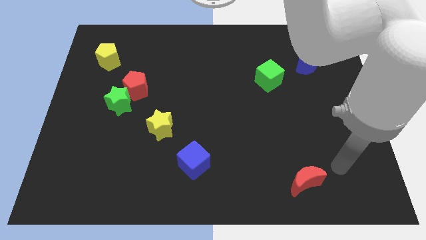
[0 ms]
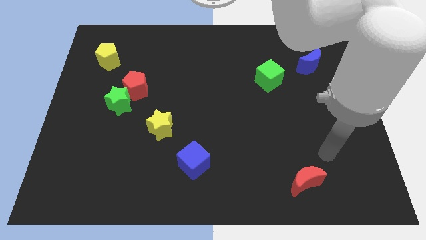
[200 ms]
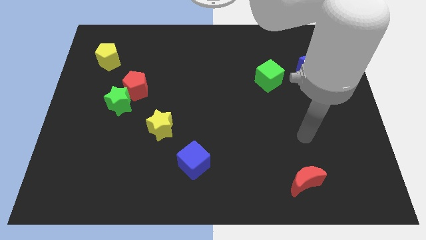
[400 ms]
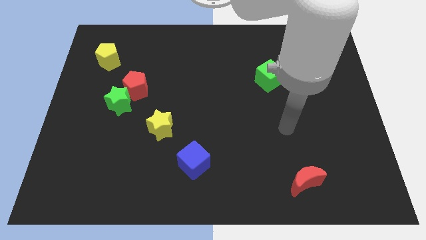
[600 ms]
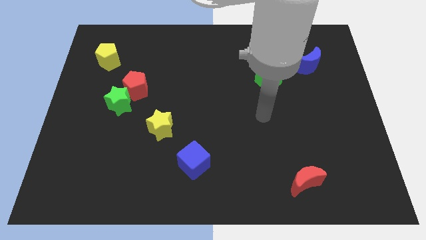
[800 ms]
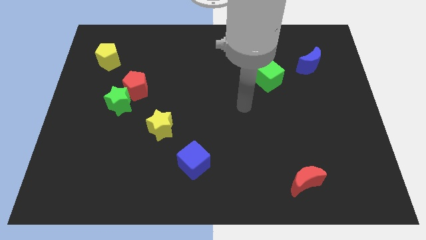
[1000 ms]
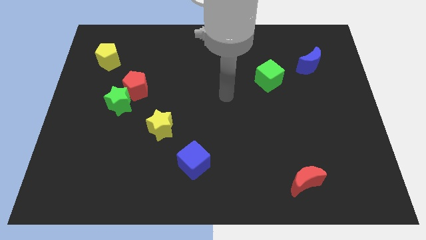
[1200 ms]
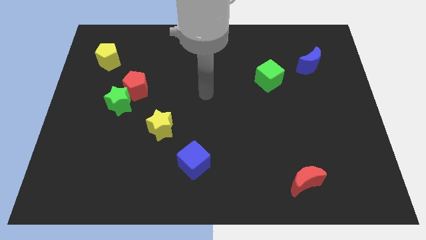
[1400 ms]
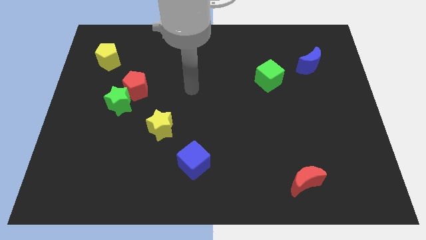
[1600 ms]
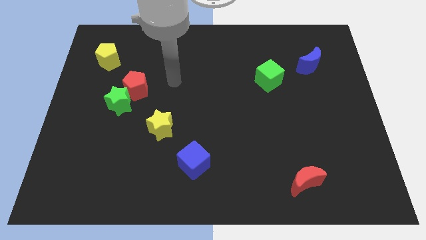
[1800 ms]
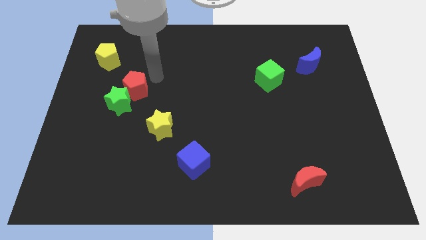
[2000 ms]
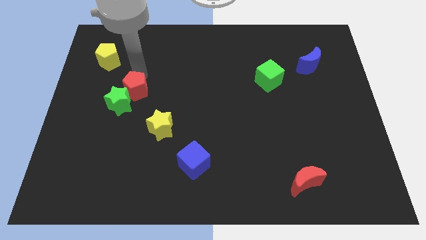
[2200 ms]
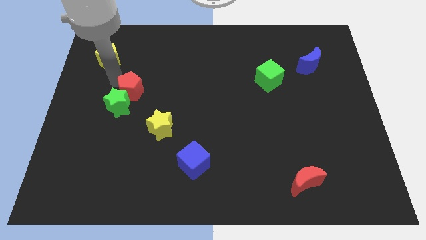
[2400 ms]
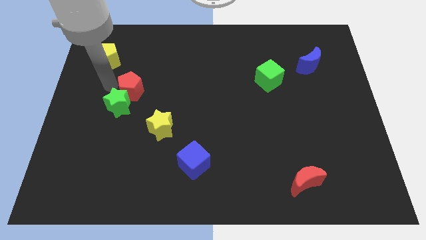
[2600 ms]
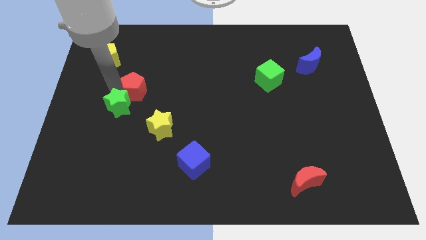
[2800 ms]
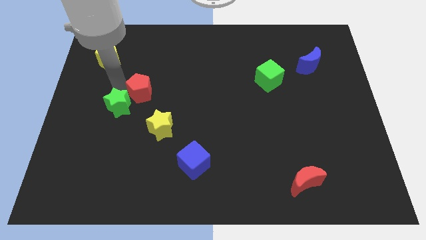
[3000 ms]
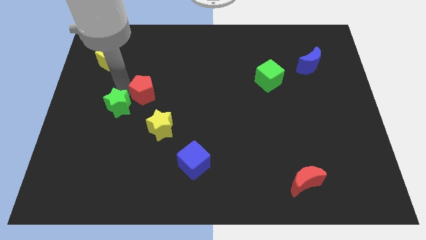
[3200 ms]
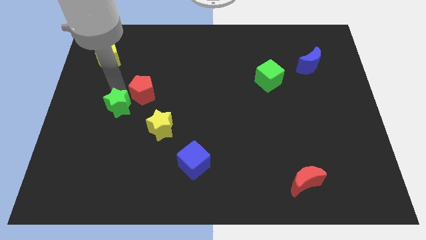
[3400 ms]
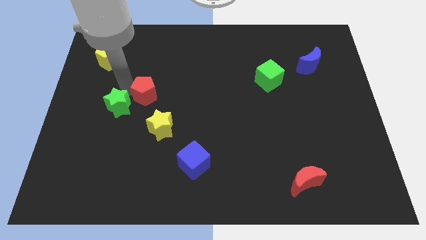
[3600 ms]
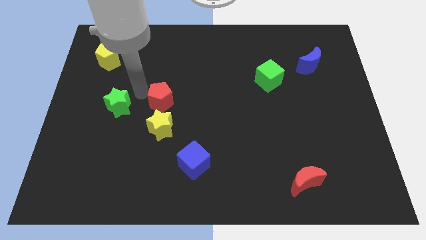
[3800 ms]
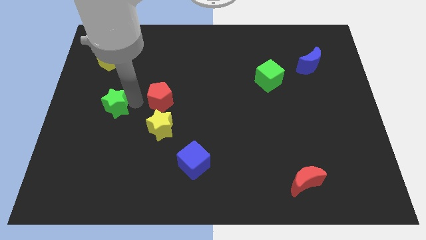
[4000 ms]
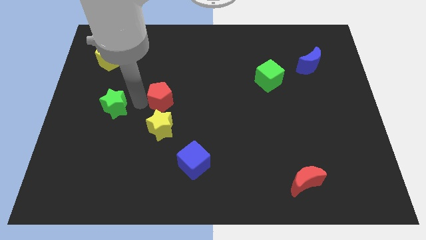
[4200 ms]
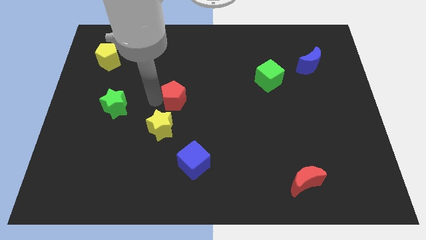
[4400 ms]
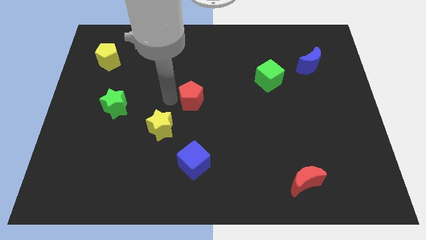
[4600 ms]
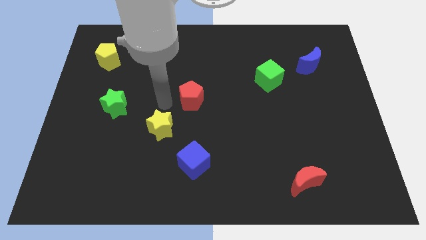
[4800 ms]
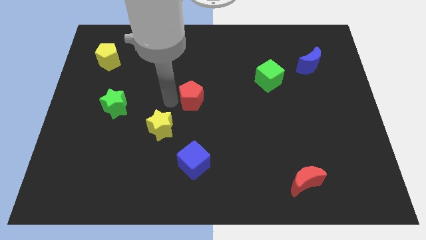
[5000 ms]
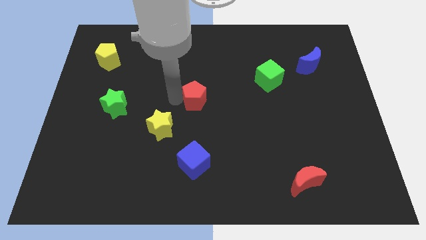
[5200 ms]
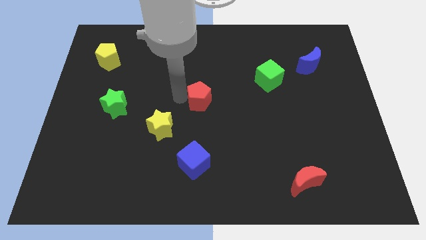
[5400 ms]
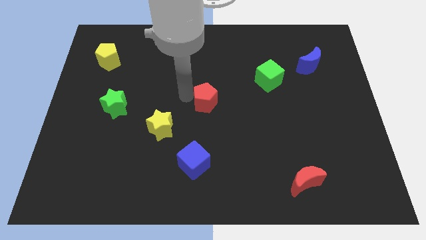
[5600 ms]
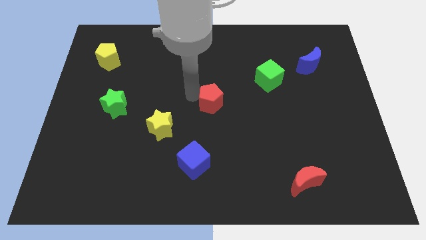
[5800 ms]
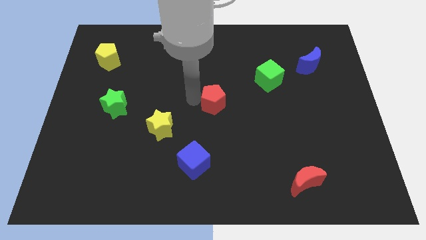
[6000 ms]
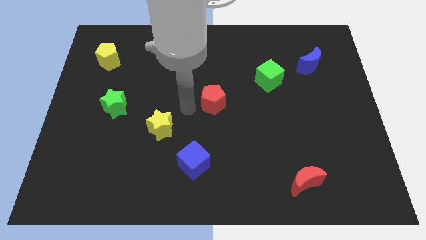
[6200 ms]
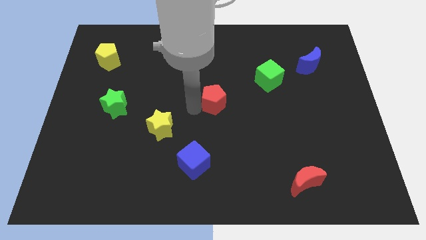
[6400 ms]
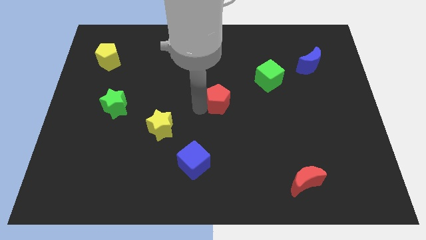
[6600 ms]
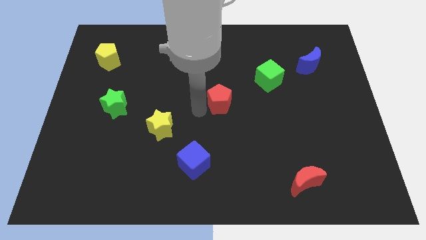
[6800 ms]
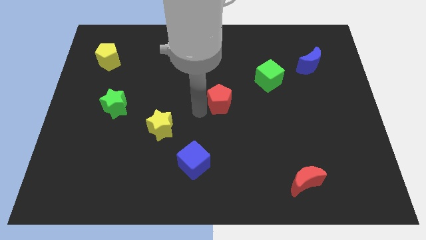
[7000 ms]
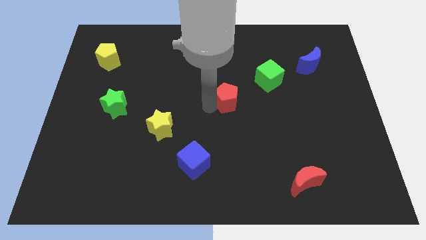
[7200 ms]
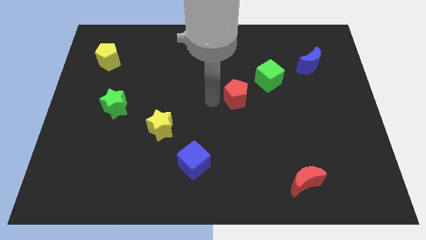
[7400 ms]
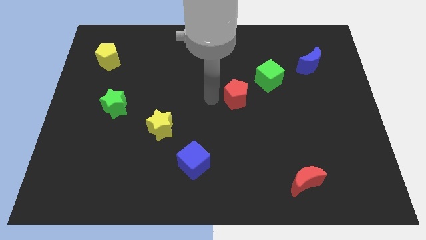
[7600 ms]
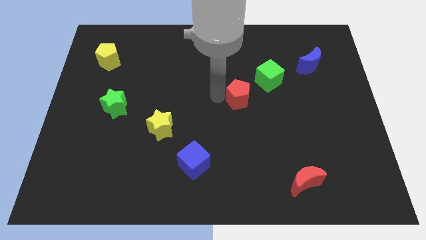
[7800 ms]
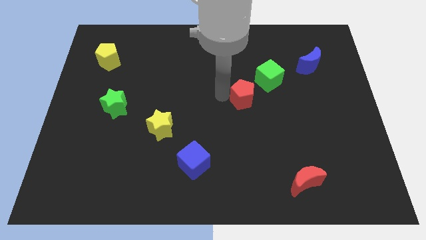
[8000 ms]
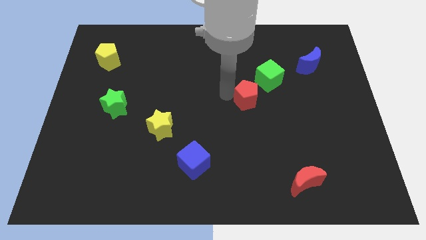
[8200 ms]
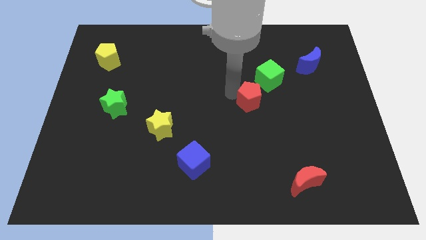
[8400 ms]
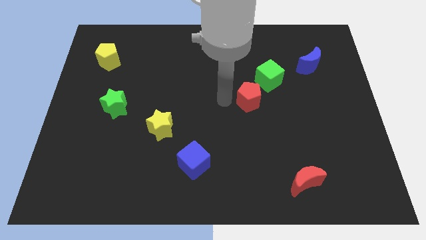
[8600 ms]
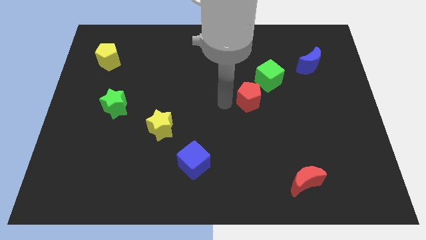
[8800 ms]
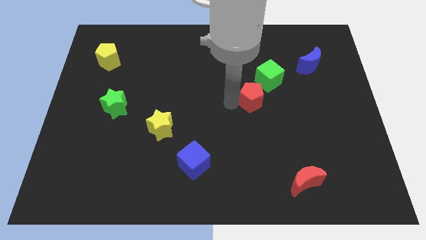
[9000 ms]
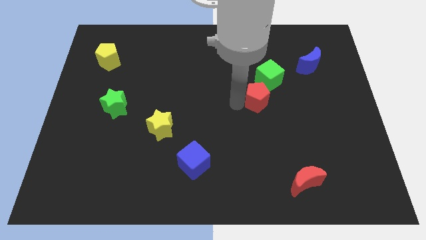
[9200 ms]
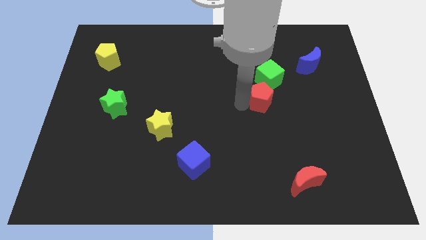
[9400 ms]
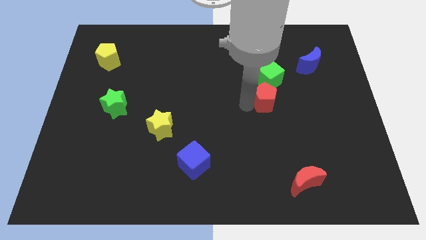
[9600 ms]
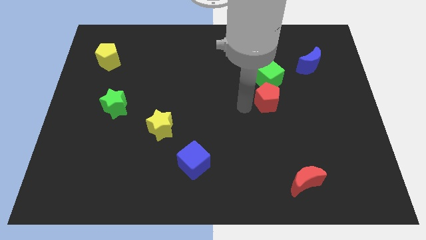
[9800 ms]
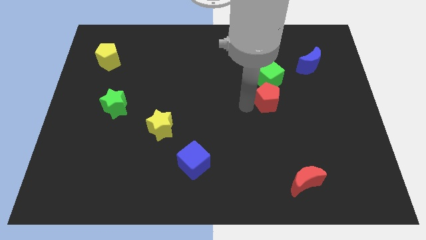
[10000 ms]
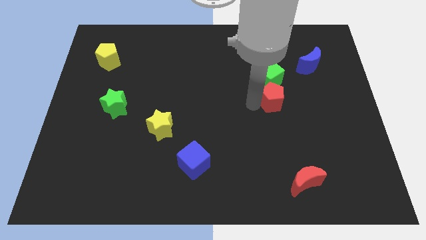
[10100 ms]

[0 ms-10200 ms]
push the red pentagon to the bottom right side of the green cube

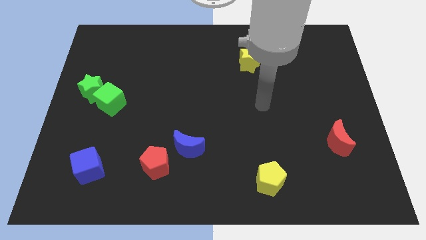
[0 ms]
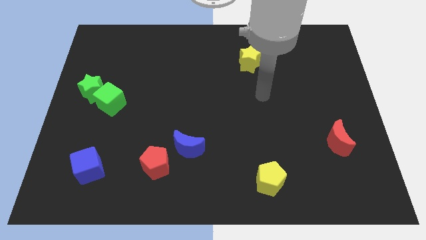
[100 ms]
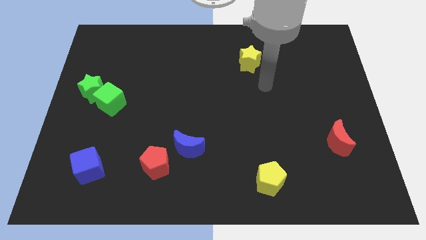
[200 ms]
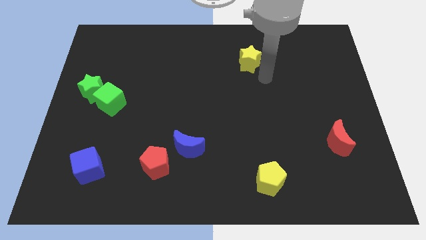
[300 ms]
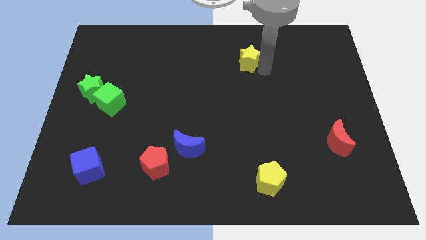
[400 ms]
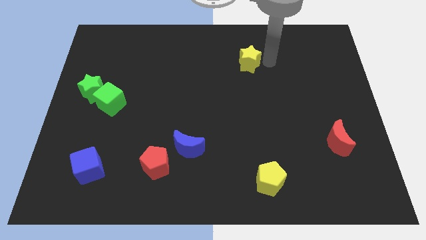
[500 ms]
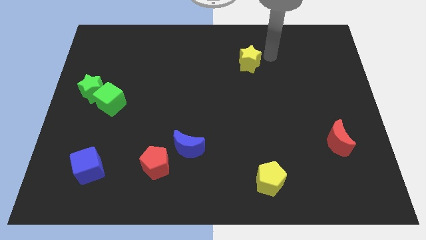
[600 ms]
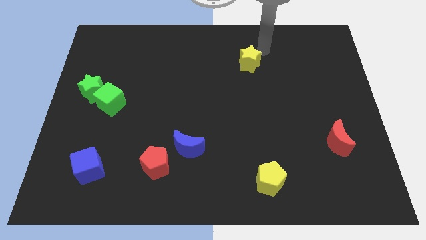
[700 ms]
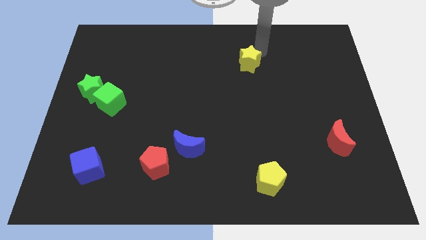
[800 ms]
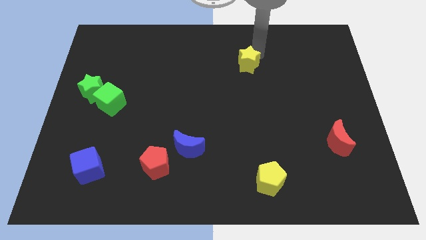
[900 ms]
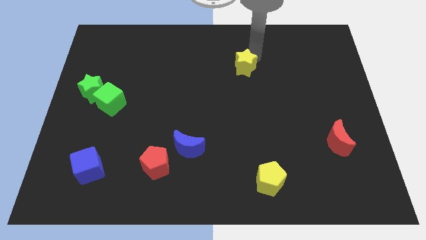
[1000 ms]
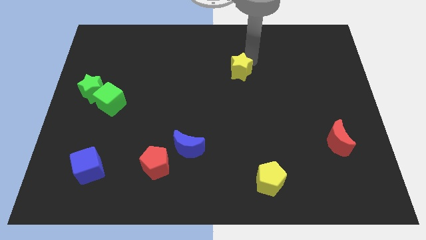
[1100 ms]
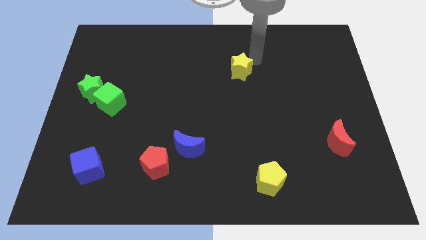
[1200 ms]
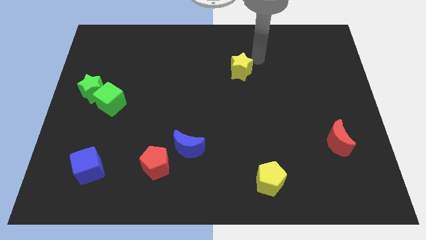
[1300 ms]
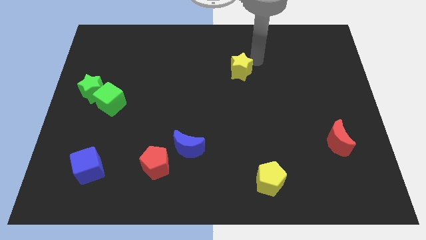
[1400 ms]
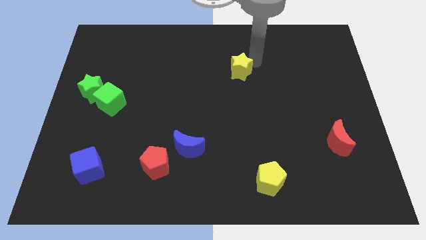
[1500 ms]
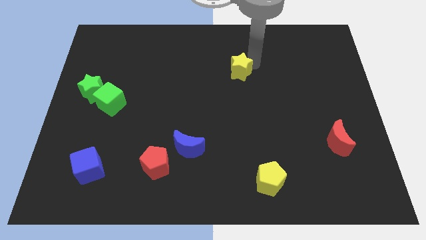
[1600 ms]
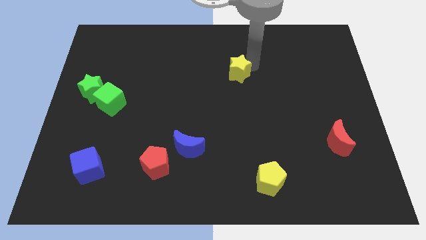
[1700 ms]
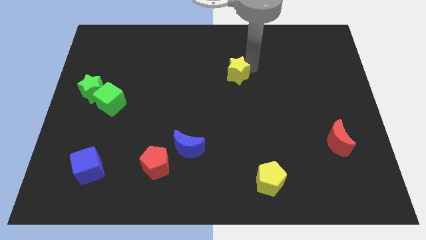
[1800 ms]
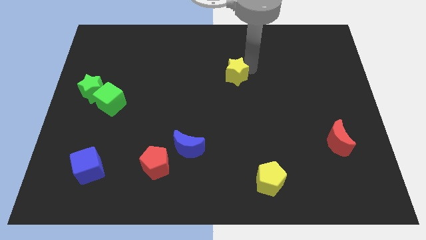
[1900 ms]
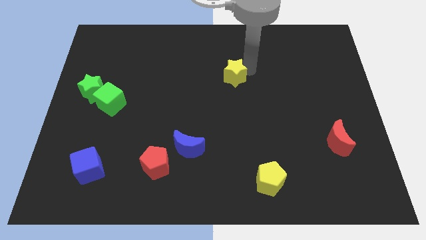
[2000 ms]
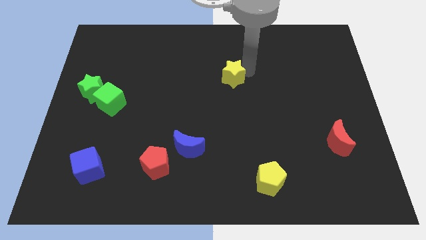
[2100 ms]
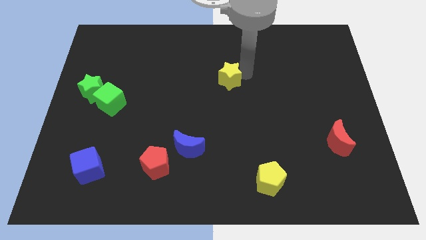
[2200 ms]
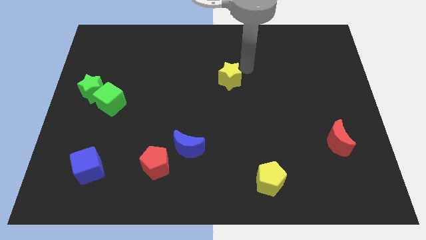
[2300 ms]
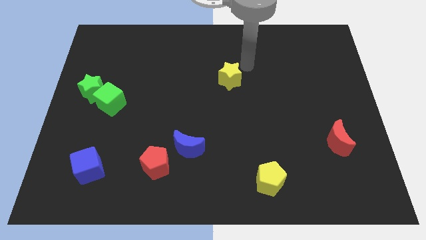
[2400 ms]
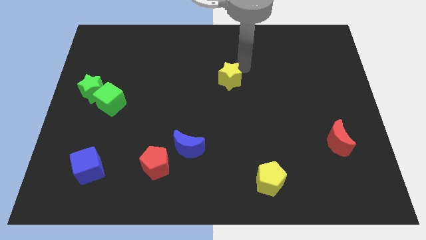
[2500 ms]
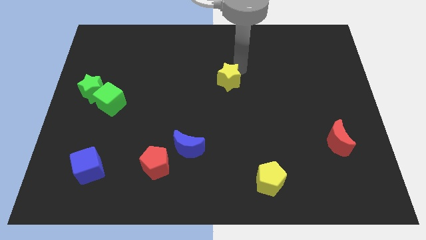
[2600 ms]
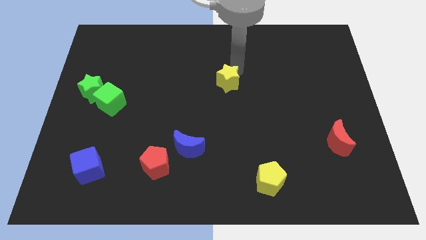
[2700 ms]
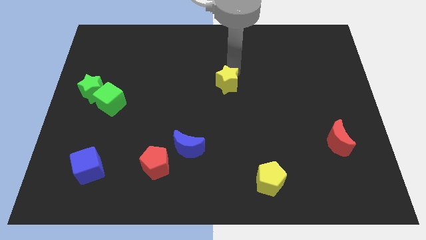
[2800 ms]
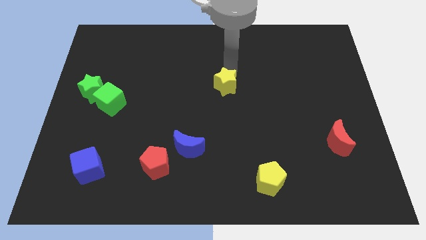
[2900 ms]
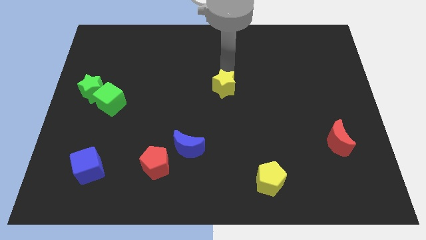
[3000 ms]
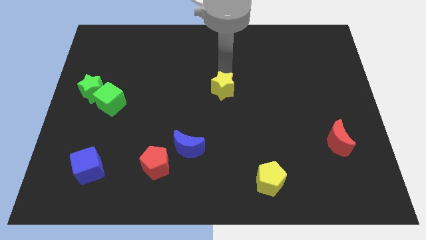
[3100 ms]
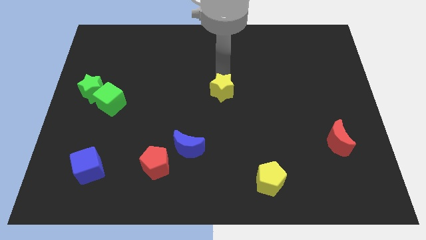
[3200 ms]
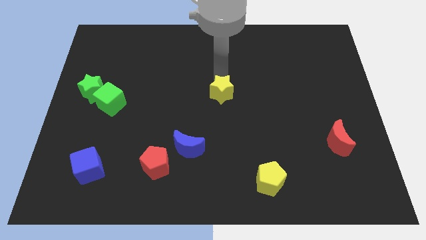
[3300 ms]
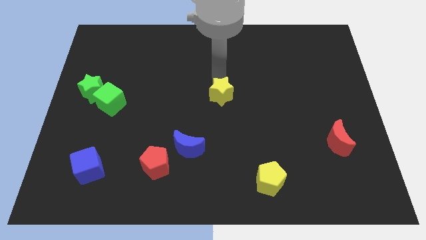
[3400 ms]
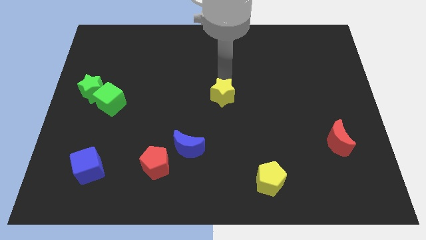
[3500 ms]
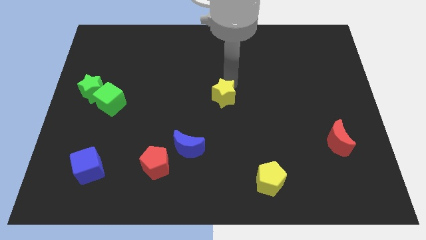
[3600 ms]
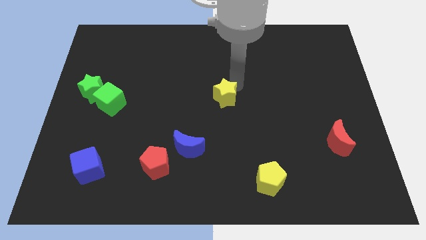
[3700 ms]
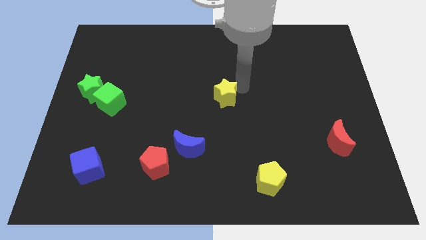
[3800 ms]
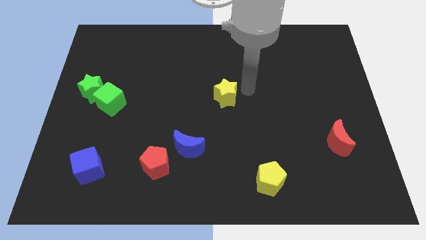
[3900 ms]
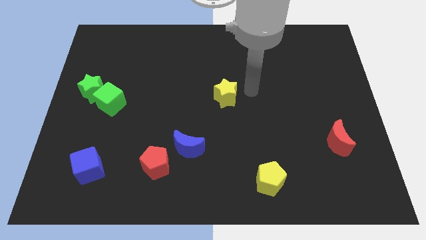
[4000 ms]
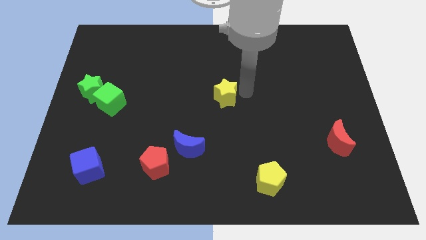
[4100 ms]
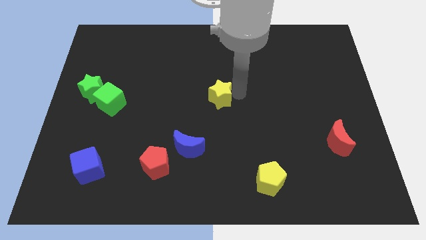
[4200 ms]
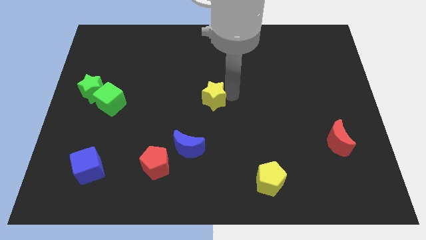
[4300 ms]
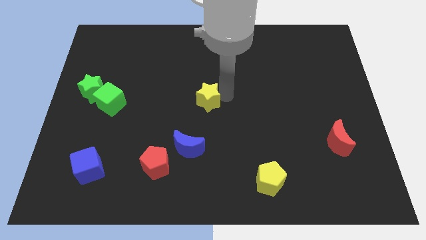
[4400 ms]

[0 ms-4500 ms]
put the yellow star to the top of the blue moon
